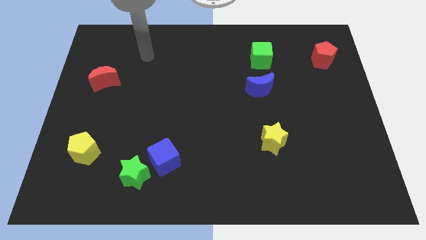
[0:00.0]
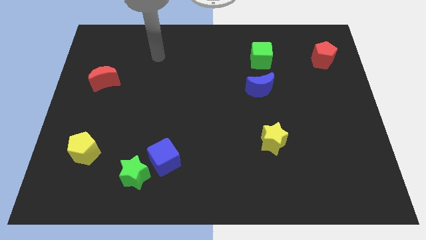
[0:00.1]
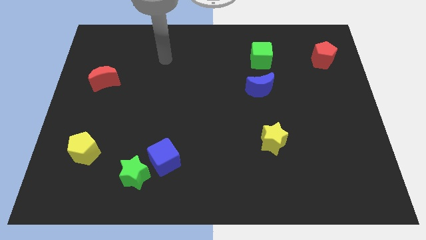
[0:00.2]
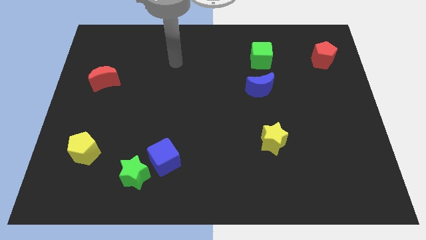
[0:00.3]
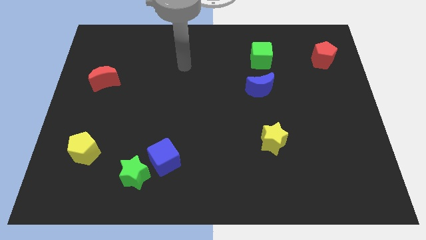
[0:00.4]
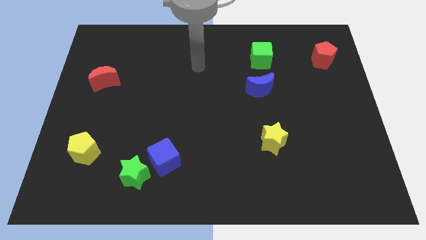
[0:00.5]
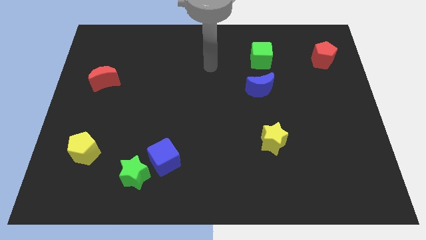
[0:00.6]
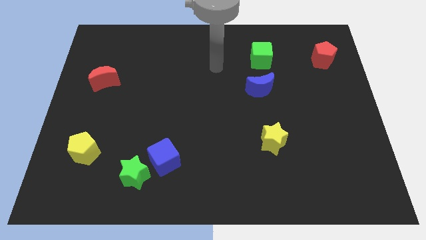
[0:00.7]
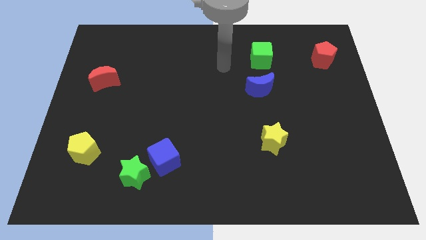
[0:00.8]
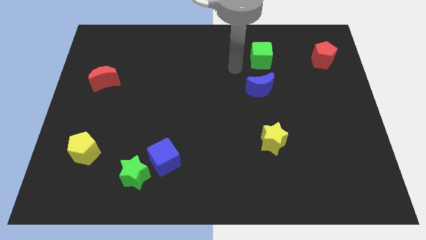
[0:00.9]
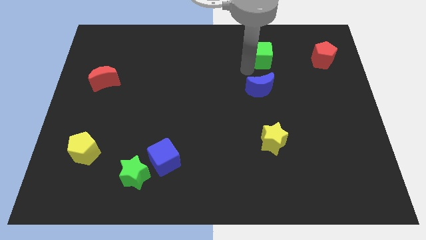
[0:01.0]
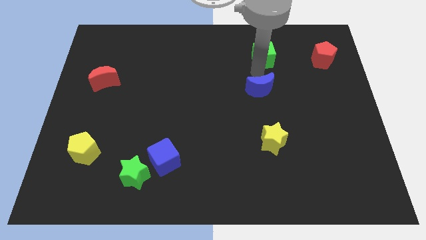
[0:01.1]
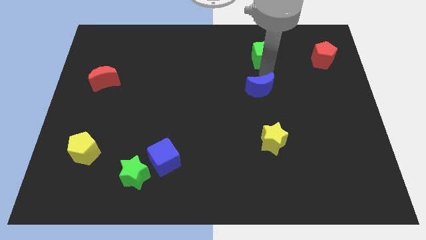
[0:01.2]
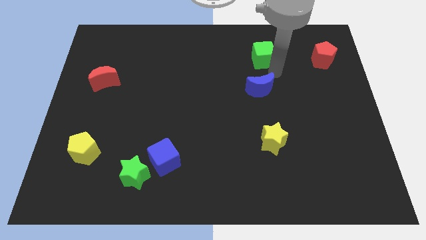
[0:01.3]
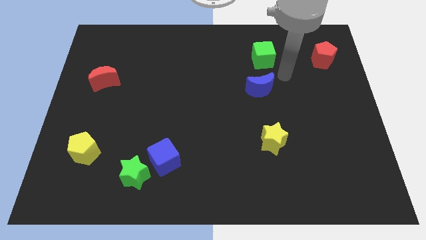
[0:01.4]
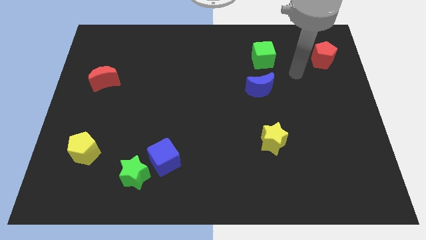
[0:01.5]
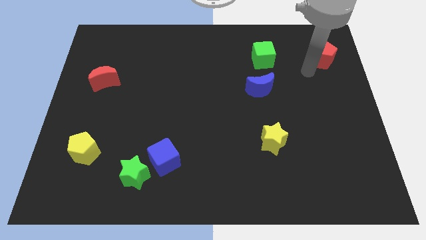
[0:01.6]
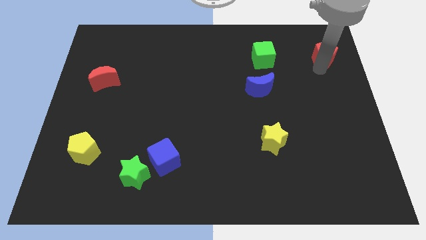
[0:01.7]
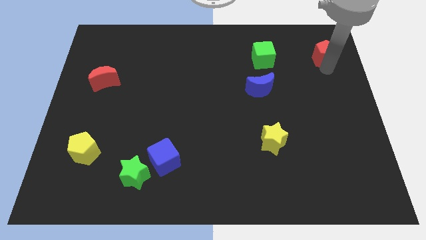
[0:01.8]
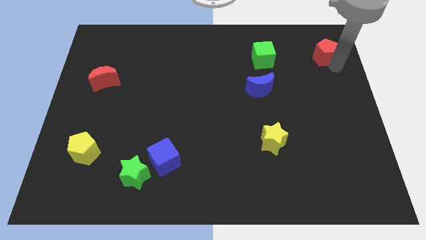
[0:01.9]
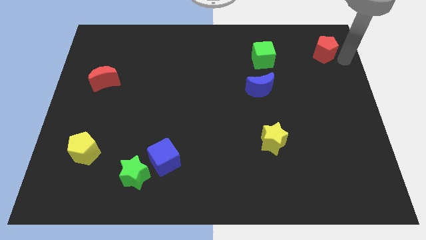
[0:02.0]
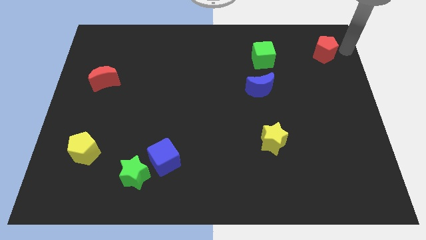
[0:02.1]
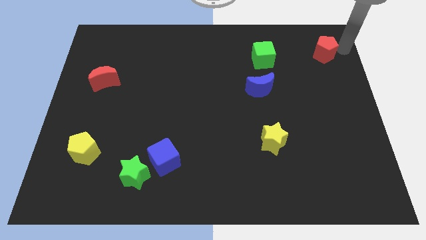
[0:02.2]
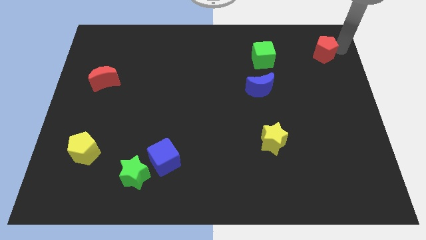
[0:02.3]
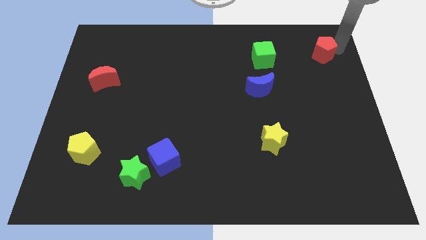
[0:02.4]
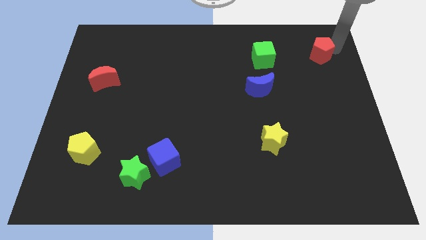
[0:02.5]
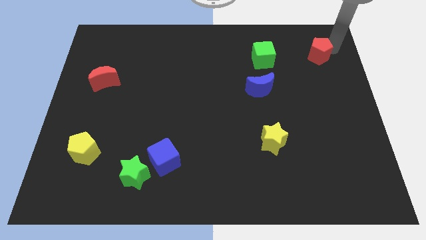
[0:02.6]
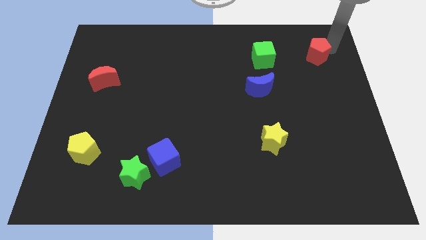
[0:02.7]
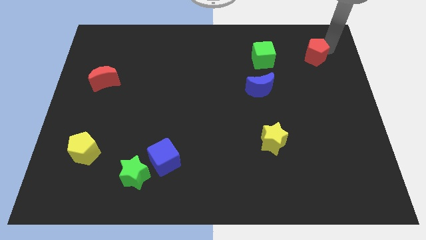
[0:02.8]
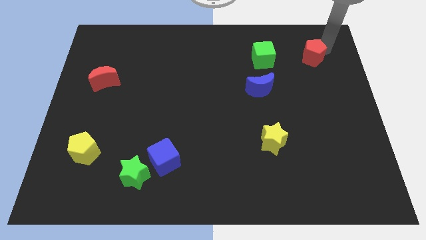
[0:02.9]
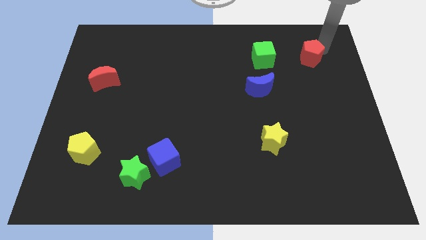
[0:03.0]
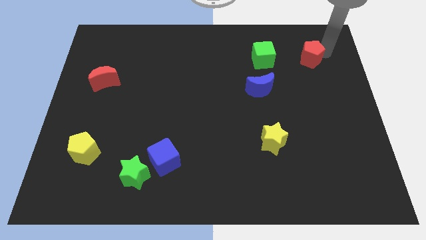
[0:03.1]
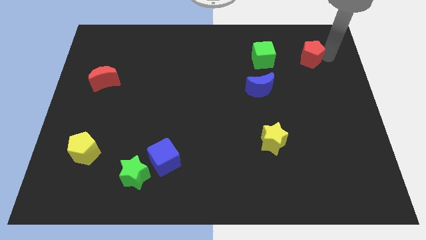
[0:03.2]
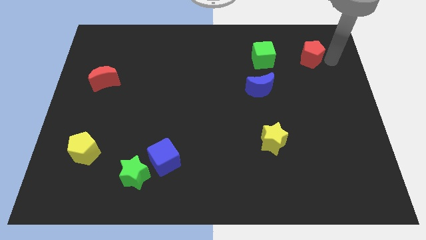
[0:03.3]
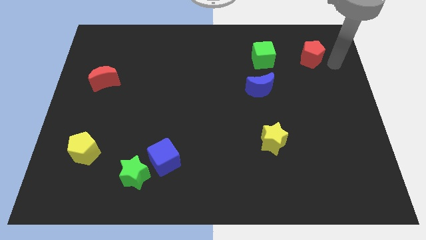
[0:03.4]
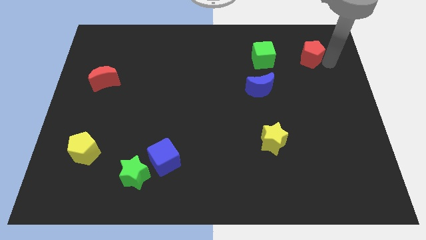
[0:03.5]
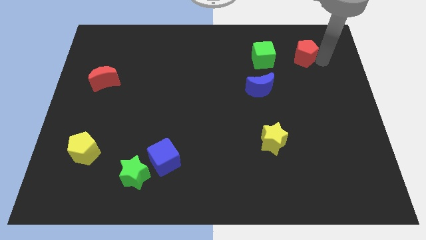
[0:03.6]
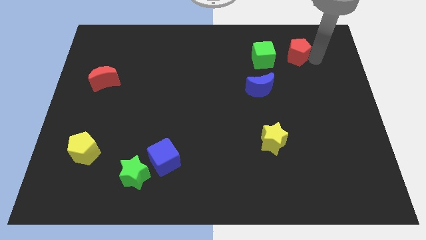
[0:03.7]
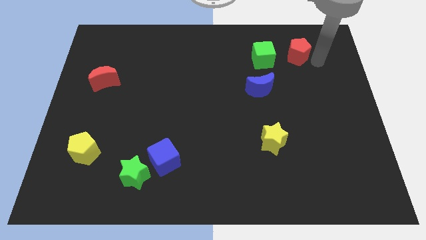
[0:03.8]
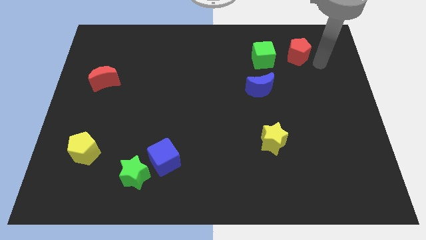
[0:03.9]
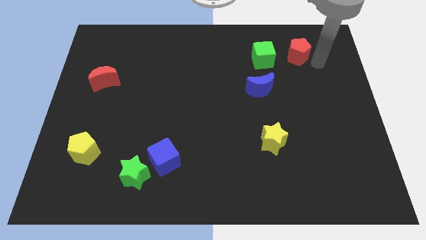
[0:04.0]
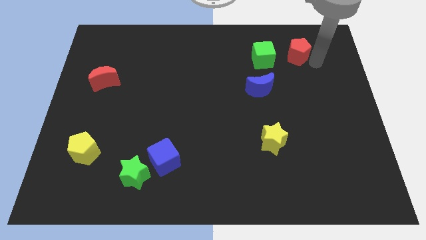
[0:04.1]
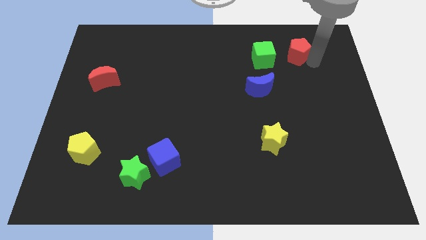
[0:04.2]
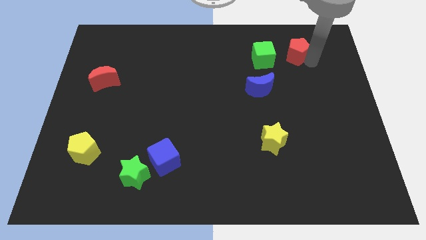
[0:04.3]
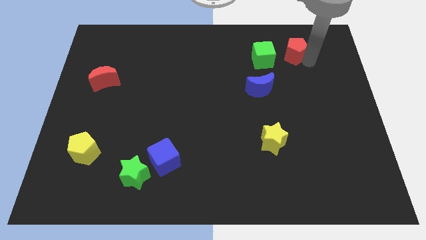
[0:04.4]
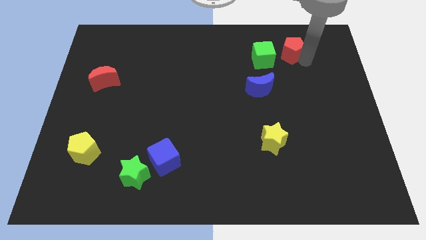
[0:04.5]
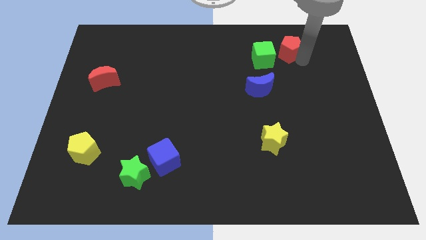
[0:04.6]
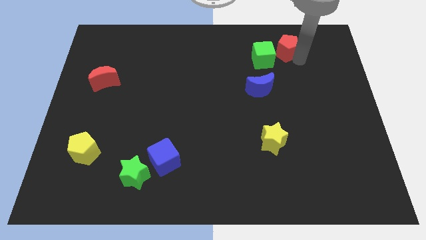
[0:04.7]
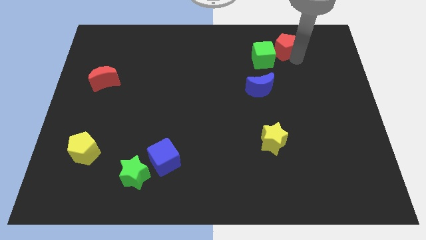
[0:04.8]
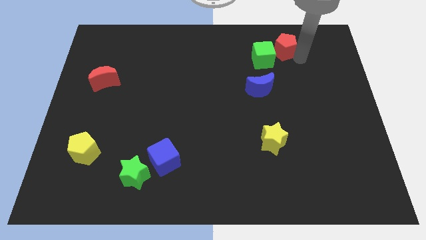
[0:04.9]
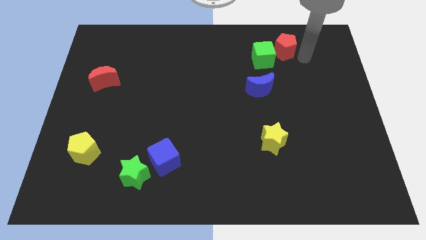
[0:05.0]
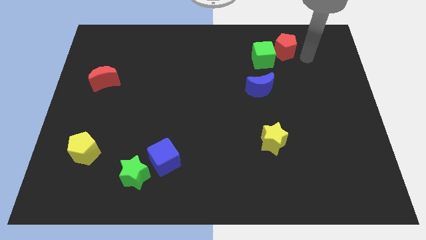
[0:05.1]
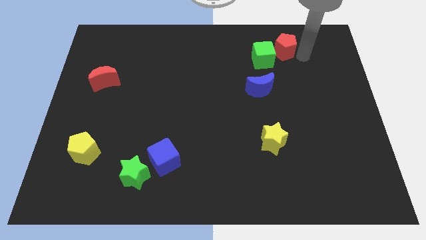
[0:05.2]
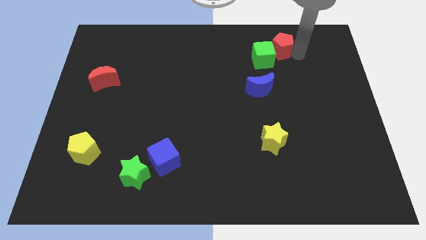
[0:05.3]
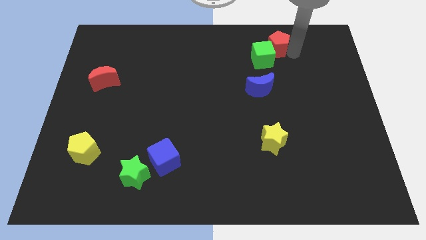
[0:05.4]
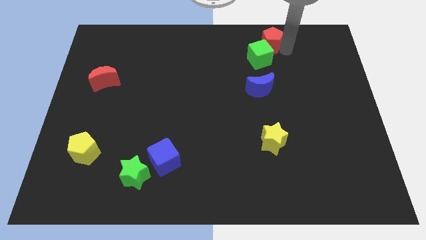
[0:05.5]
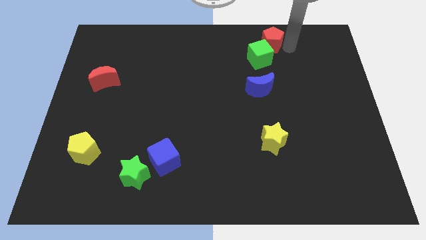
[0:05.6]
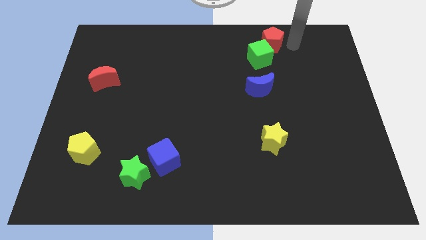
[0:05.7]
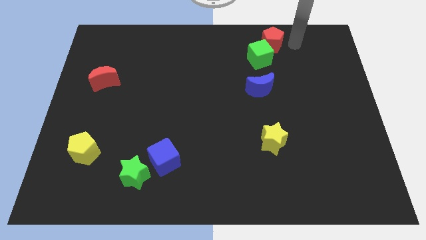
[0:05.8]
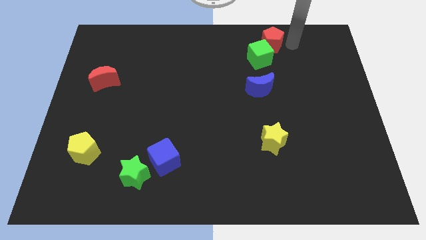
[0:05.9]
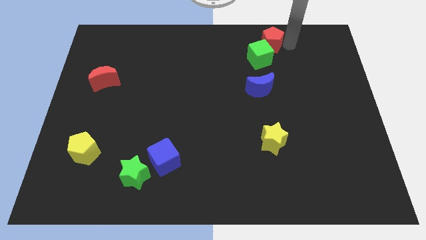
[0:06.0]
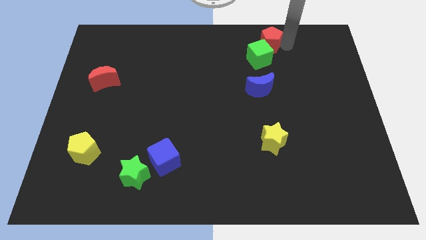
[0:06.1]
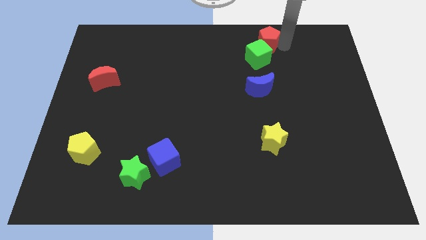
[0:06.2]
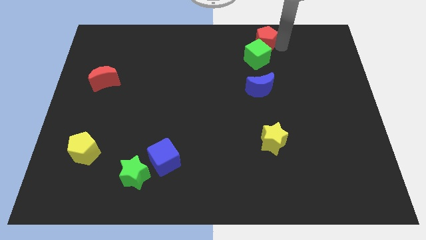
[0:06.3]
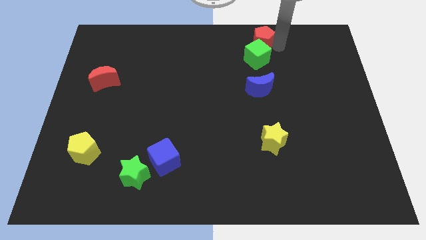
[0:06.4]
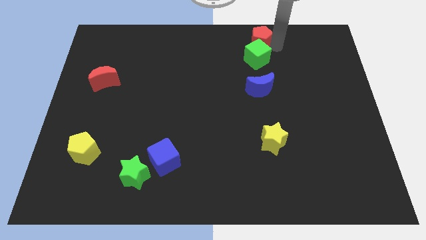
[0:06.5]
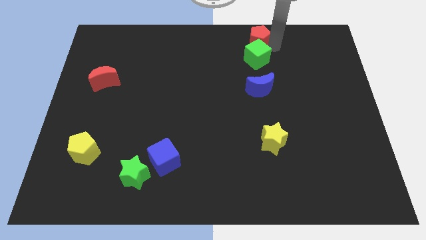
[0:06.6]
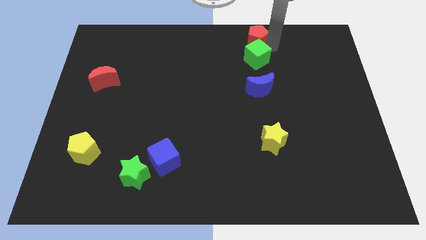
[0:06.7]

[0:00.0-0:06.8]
push the red pentagon to the towards your base

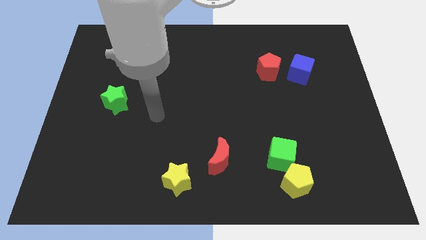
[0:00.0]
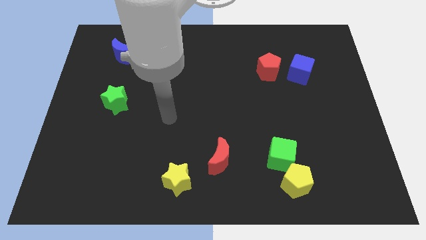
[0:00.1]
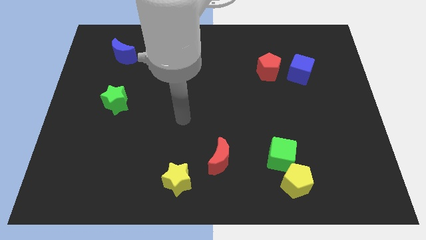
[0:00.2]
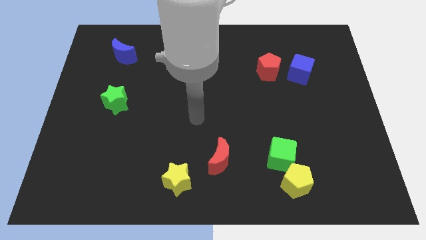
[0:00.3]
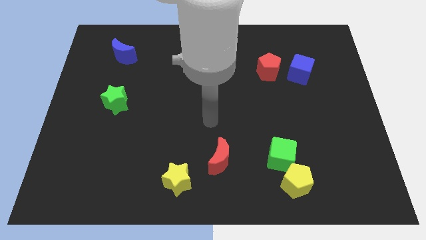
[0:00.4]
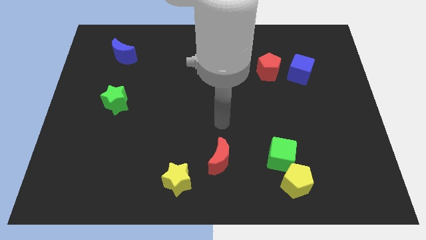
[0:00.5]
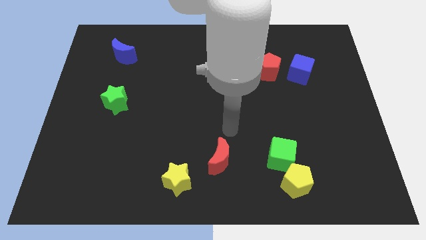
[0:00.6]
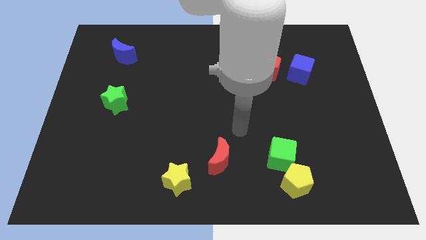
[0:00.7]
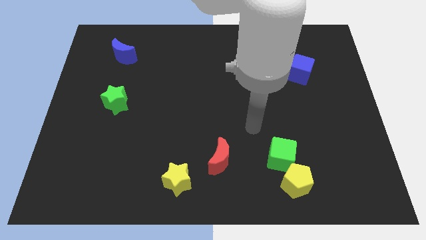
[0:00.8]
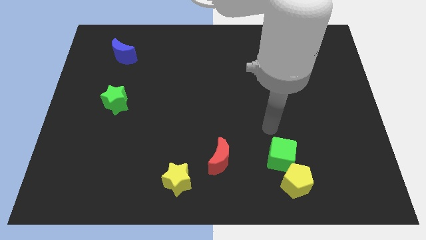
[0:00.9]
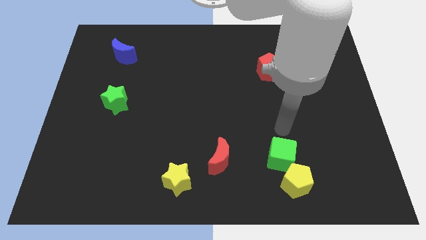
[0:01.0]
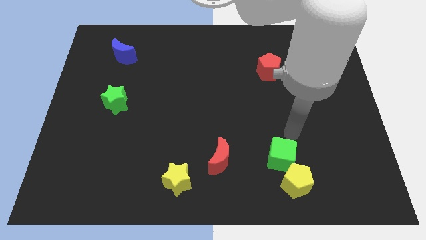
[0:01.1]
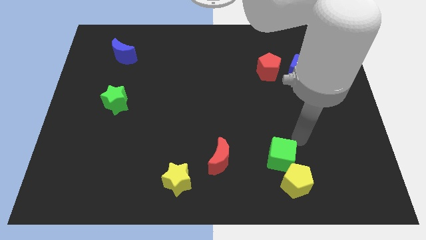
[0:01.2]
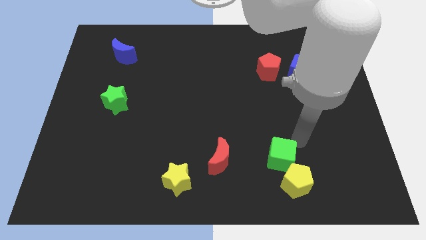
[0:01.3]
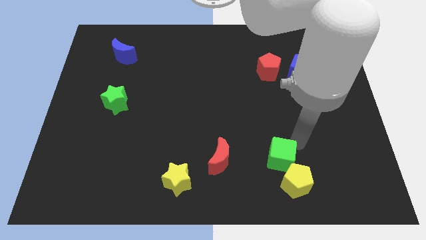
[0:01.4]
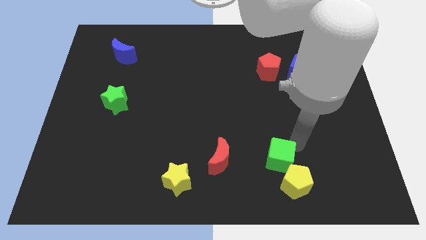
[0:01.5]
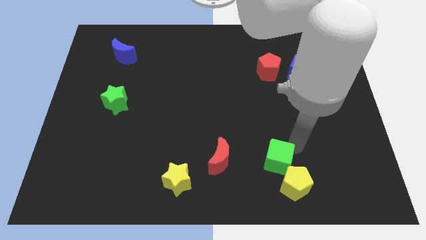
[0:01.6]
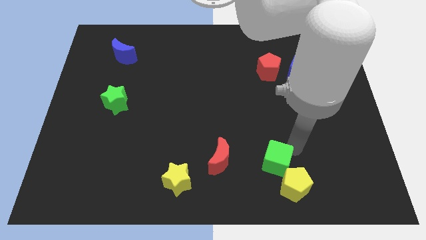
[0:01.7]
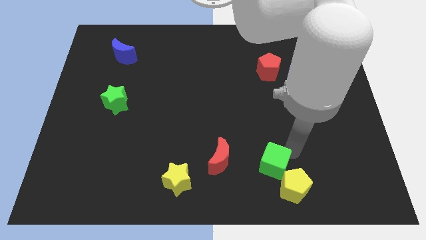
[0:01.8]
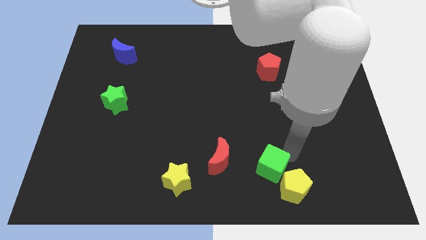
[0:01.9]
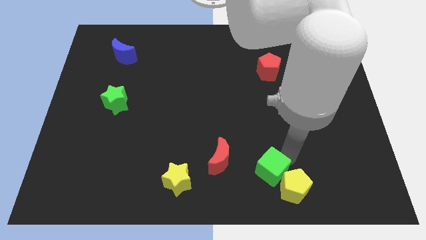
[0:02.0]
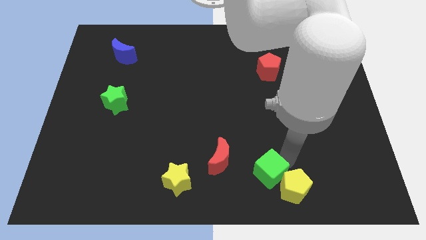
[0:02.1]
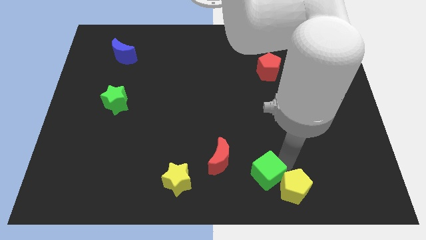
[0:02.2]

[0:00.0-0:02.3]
put the green cube to the bottom side
